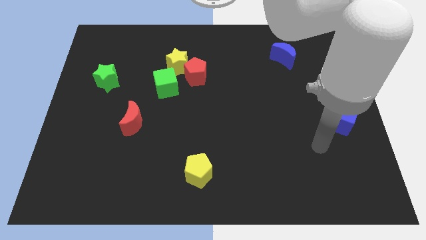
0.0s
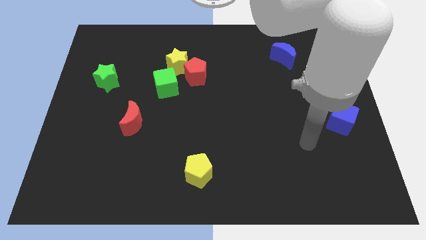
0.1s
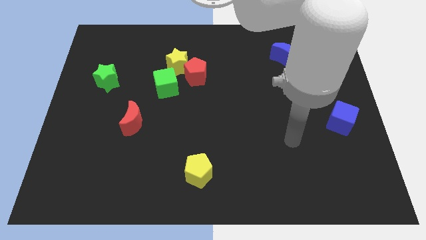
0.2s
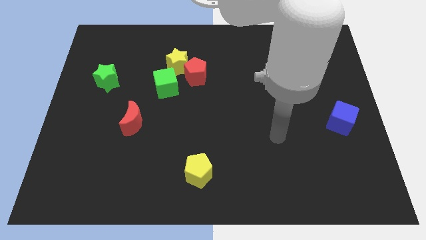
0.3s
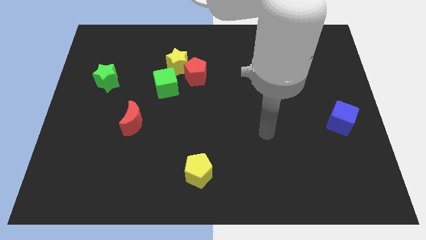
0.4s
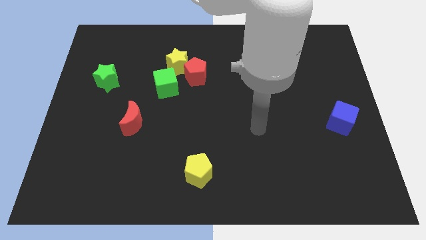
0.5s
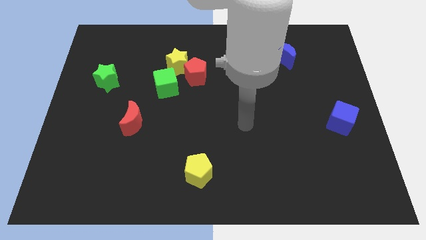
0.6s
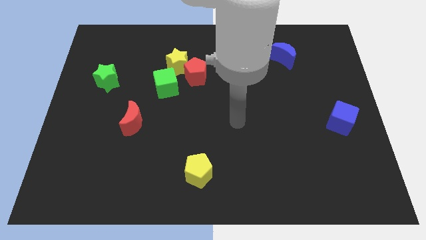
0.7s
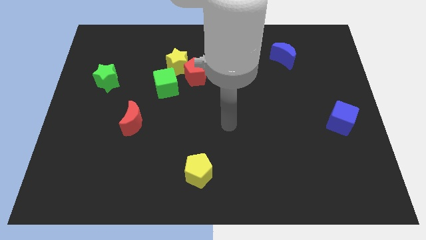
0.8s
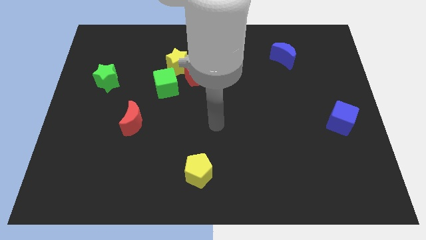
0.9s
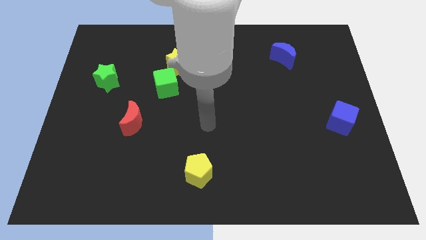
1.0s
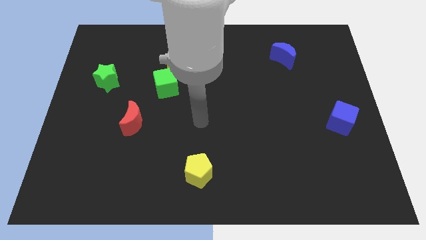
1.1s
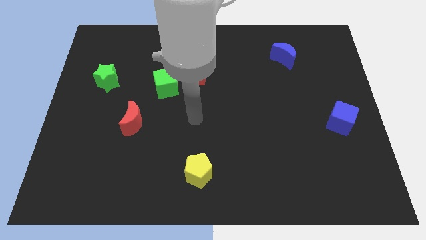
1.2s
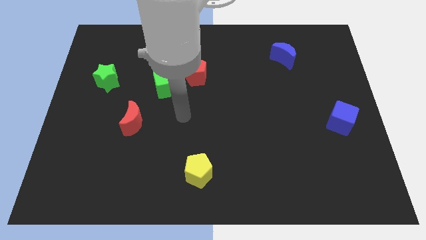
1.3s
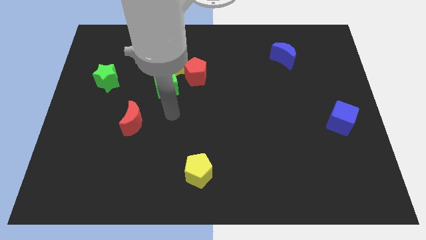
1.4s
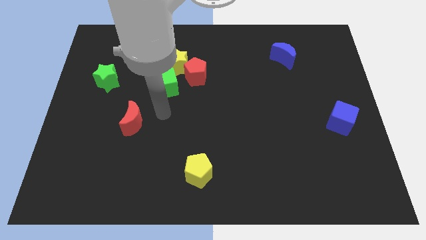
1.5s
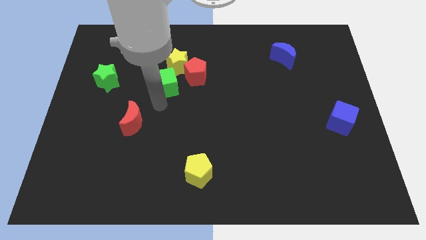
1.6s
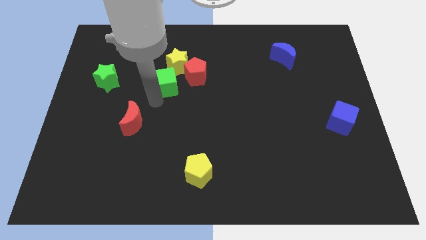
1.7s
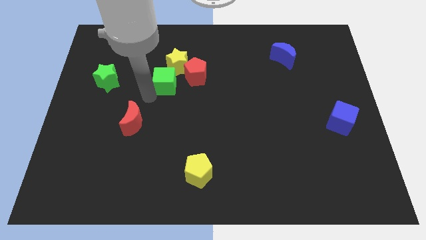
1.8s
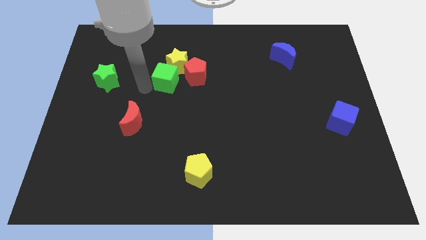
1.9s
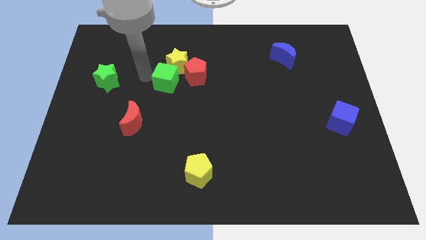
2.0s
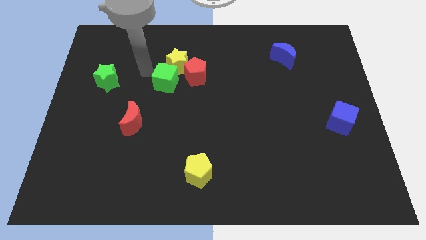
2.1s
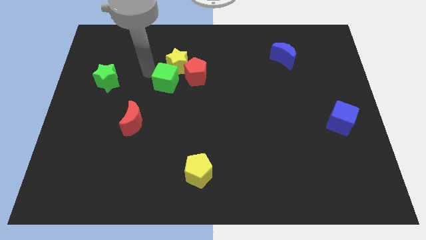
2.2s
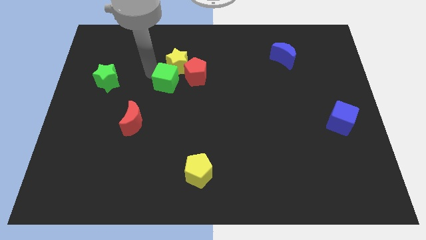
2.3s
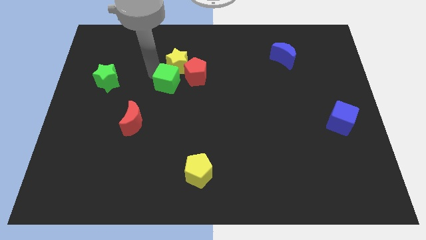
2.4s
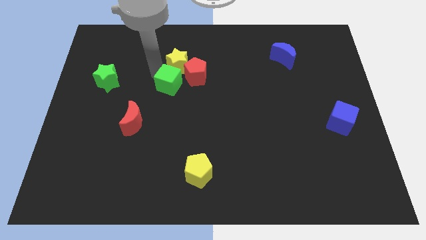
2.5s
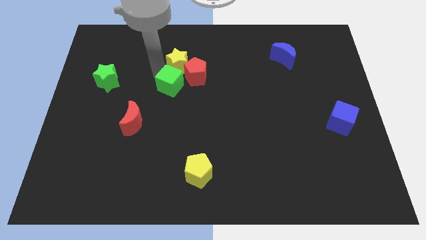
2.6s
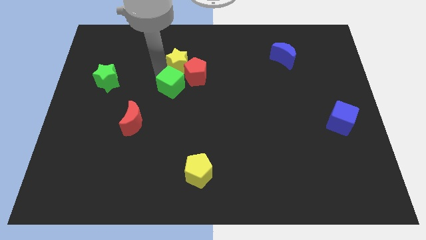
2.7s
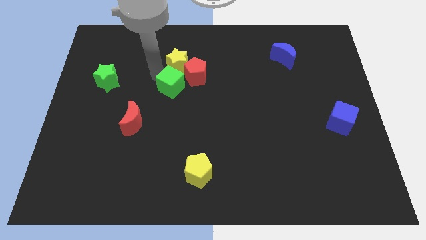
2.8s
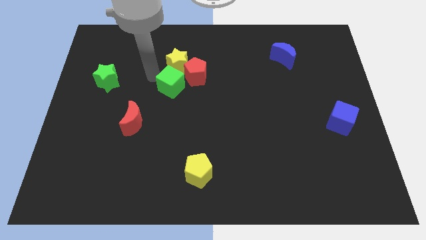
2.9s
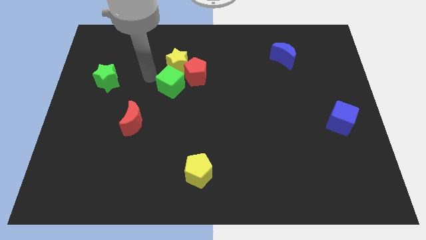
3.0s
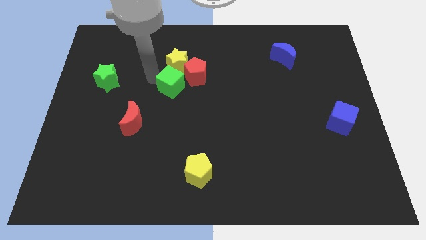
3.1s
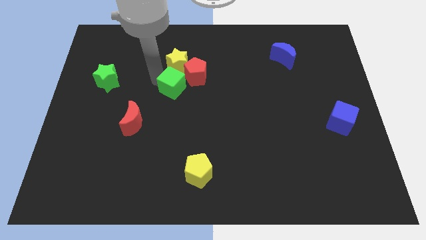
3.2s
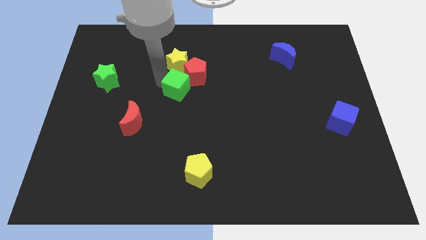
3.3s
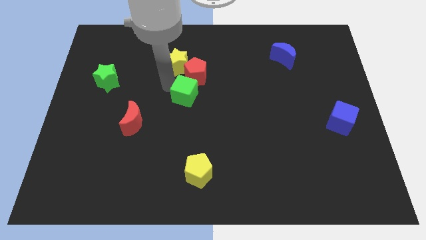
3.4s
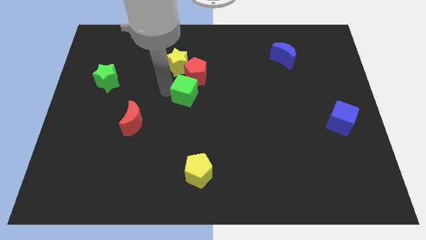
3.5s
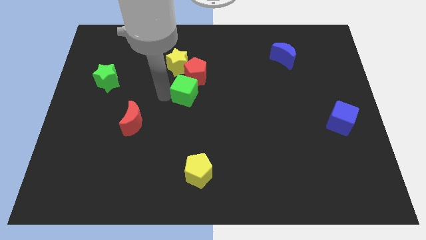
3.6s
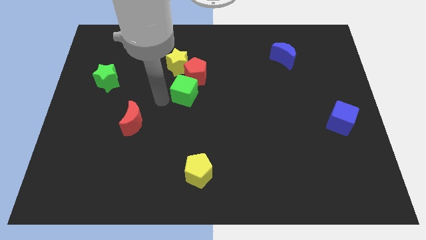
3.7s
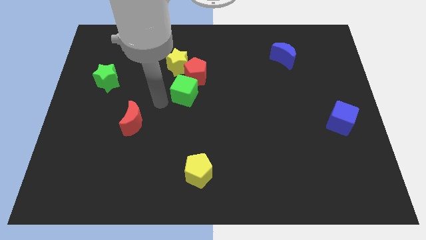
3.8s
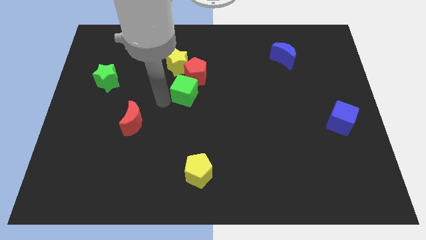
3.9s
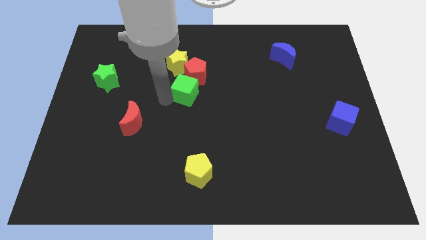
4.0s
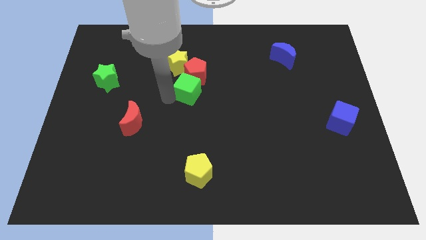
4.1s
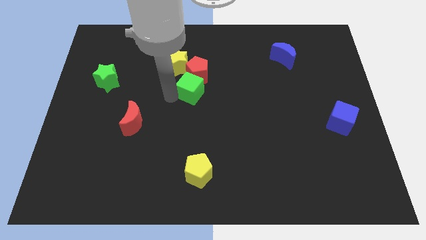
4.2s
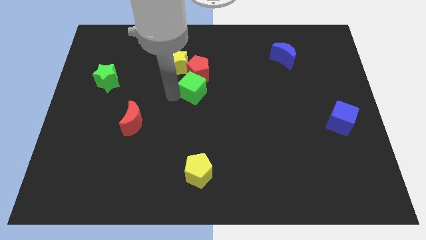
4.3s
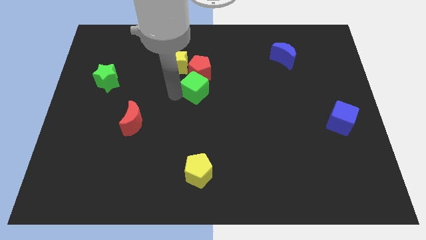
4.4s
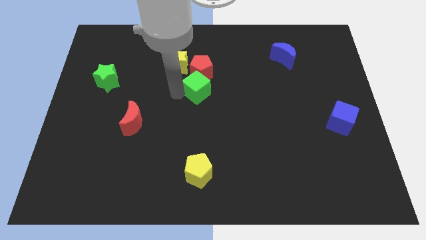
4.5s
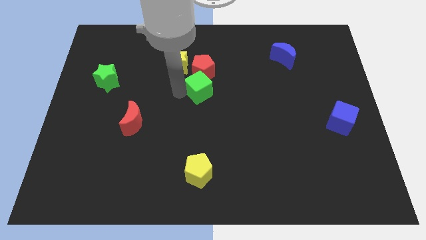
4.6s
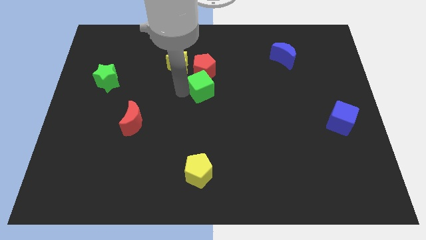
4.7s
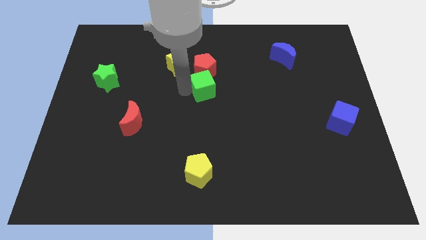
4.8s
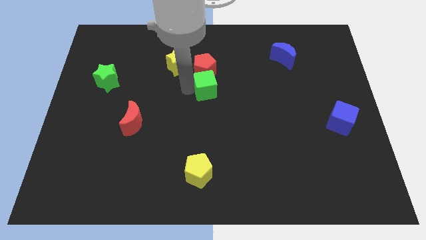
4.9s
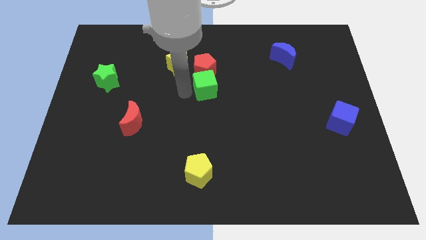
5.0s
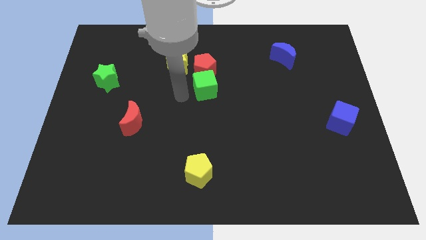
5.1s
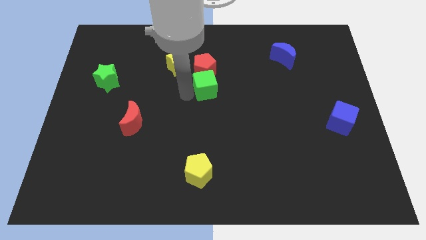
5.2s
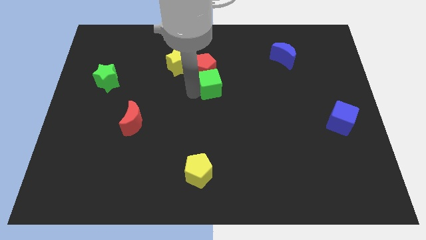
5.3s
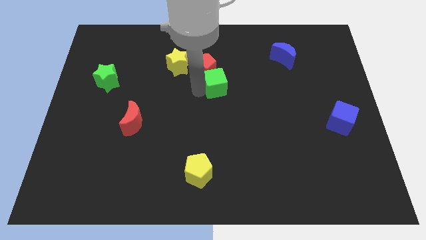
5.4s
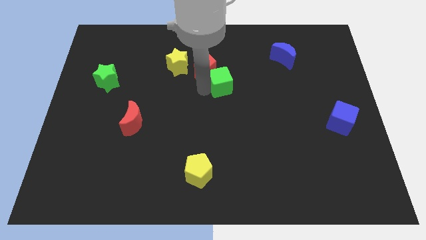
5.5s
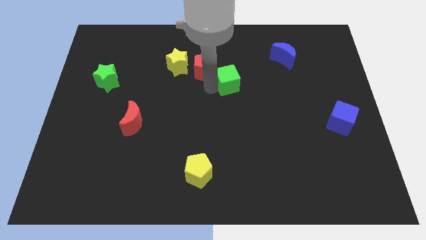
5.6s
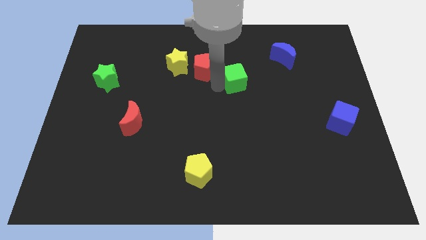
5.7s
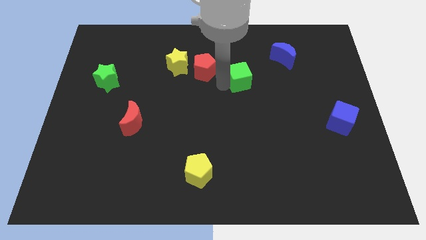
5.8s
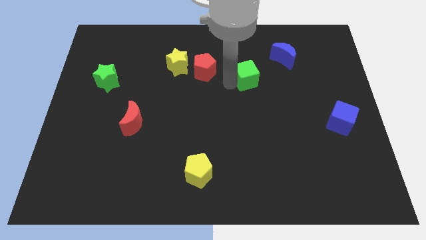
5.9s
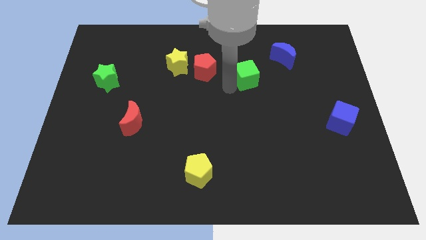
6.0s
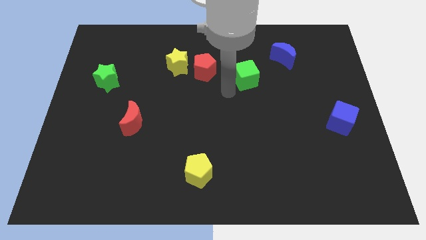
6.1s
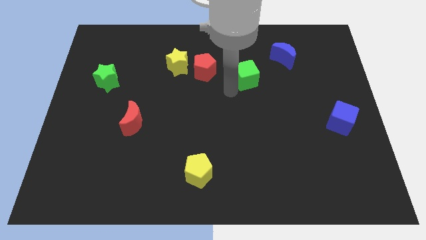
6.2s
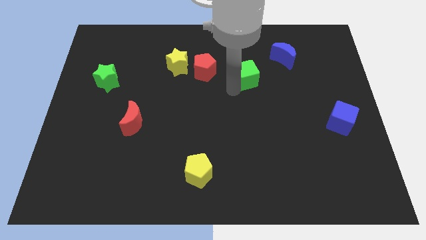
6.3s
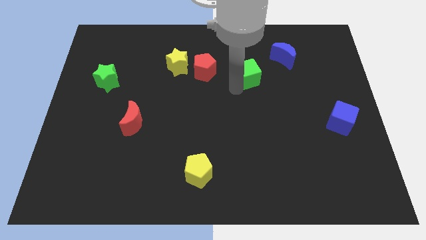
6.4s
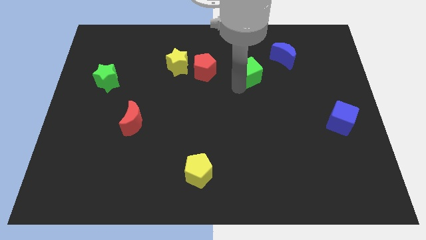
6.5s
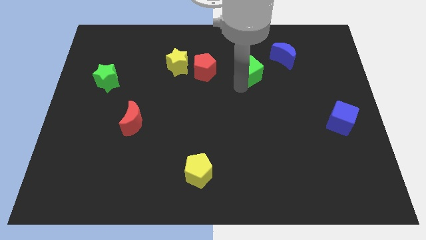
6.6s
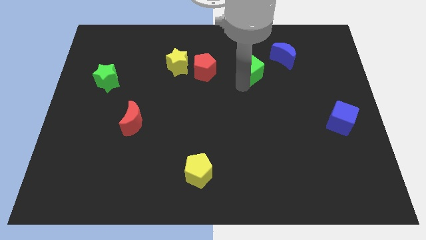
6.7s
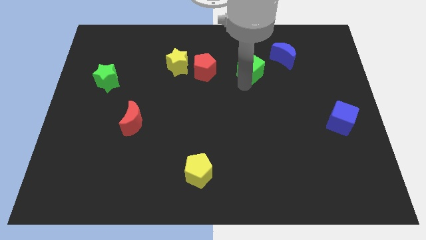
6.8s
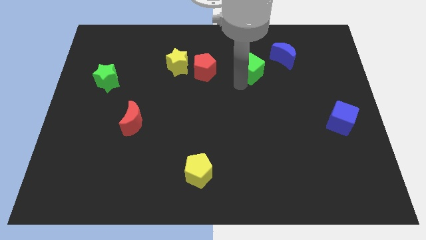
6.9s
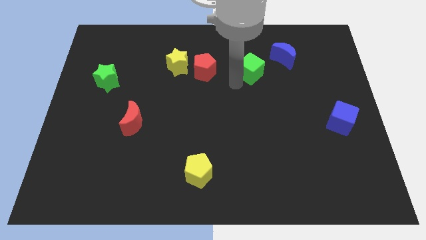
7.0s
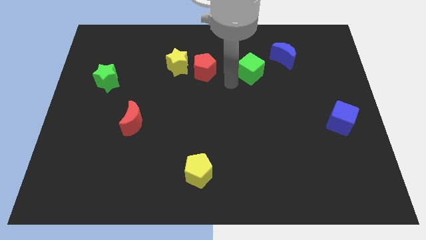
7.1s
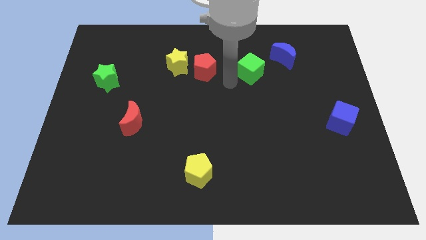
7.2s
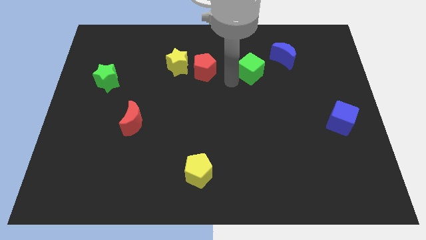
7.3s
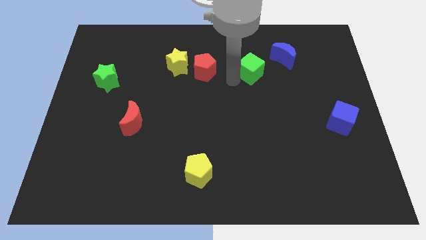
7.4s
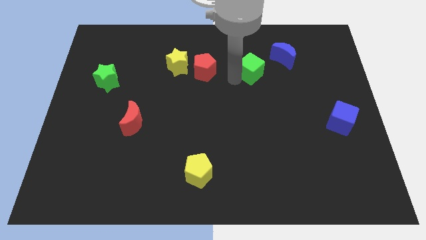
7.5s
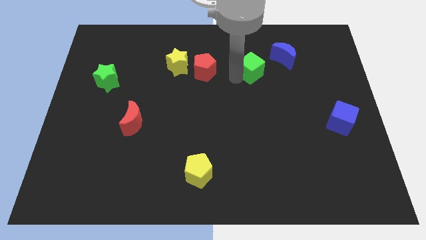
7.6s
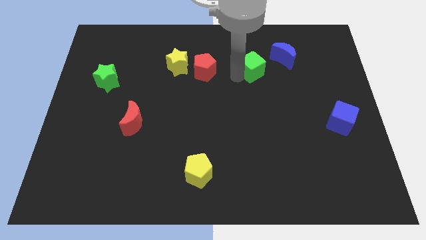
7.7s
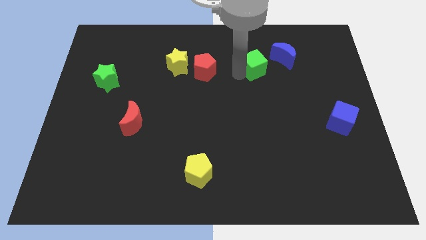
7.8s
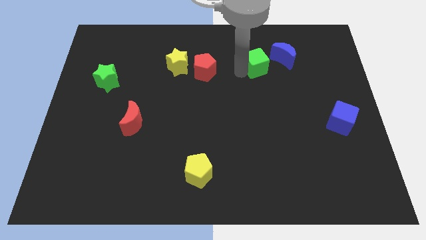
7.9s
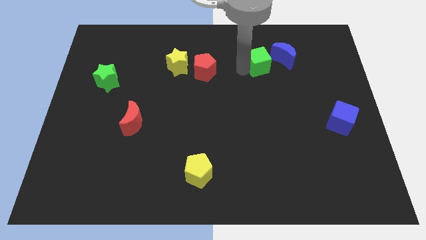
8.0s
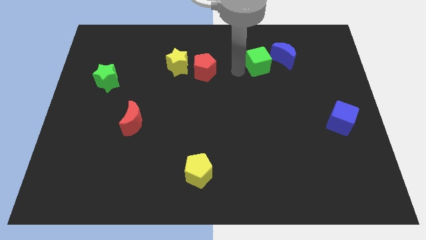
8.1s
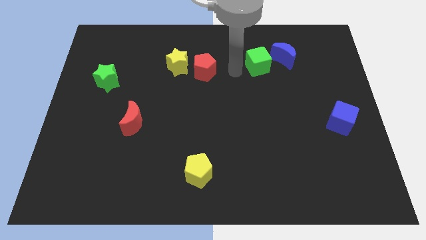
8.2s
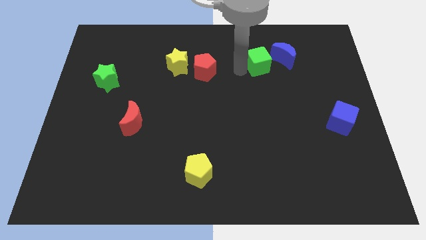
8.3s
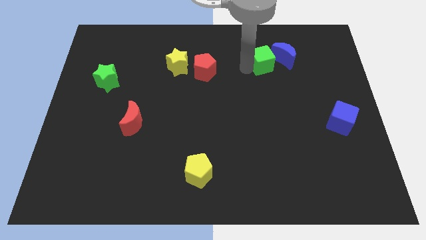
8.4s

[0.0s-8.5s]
push the green cube next to the blue moon
